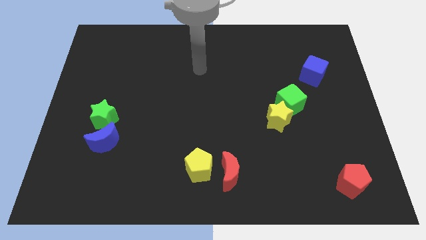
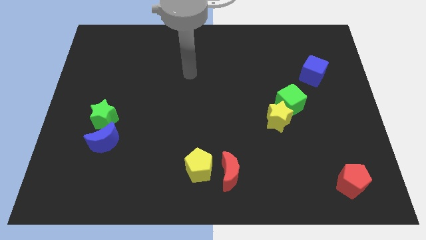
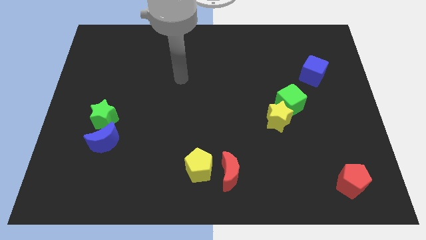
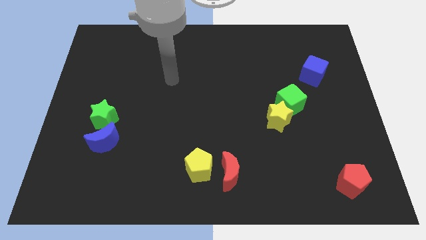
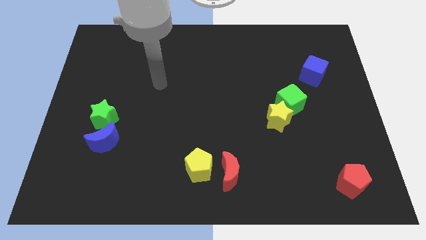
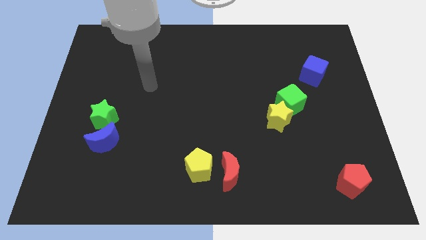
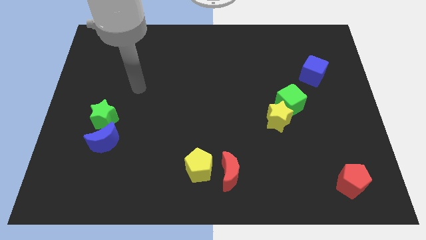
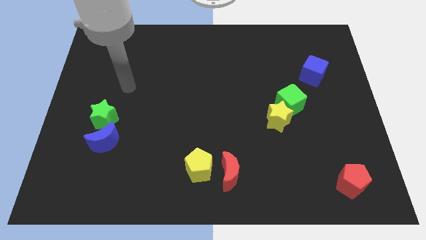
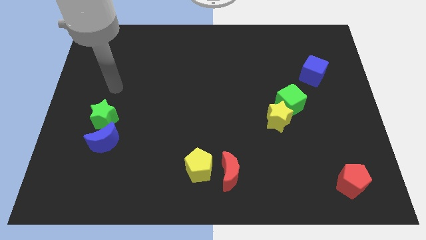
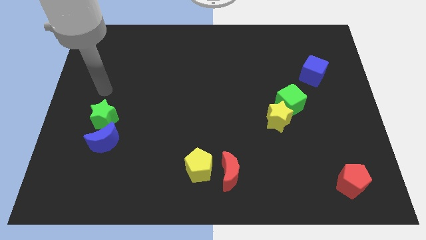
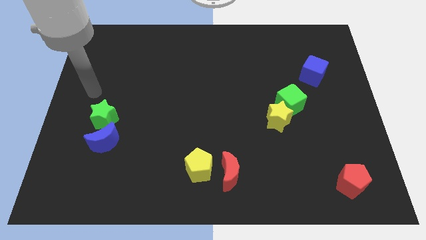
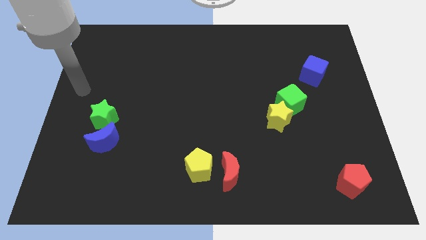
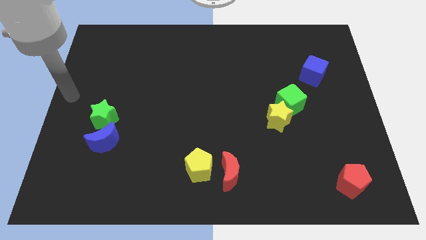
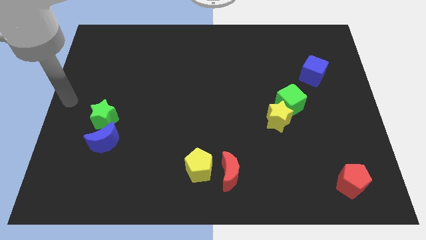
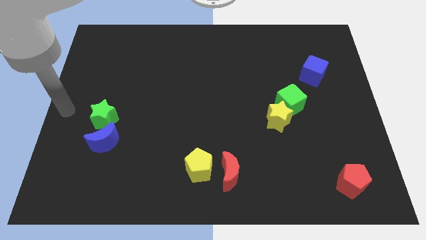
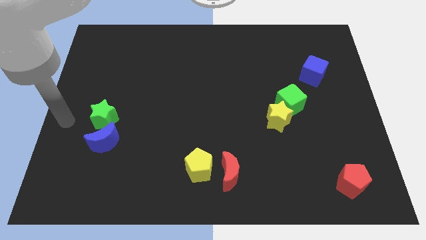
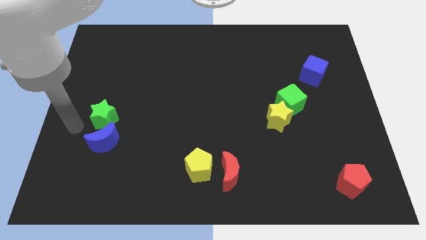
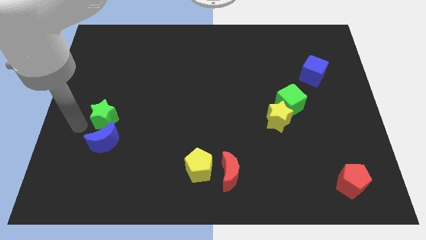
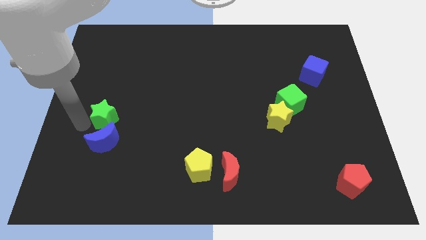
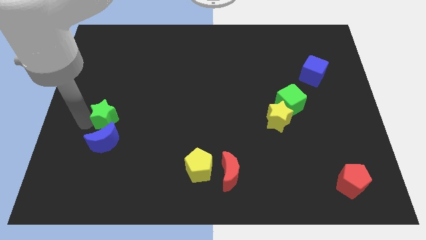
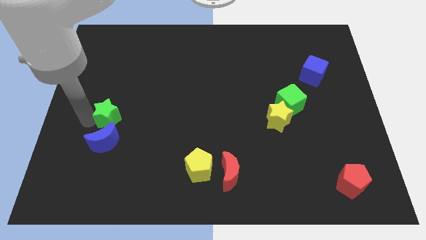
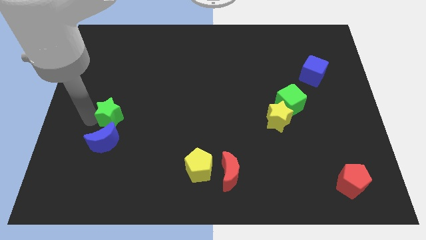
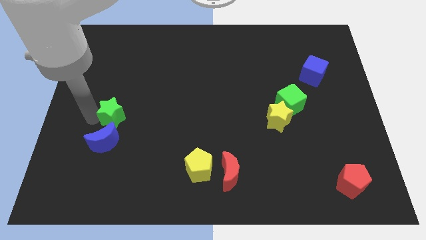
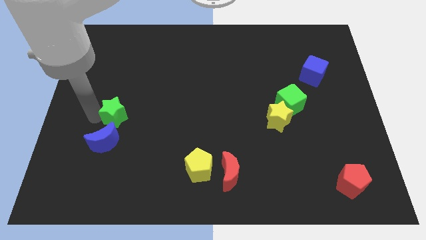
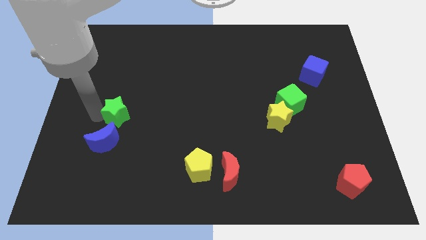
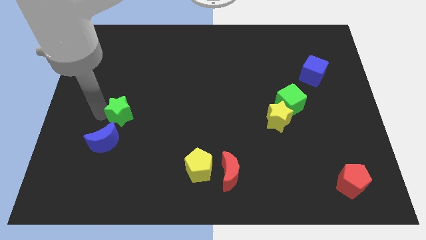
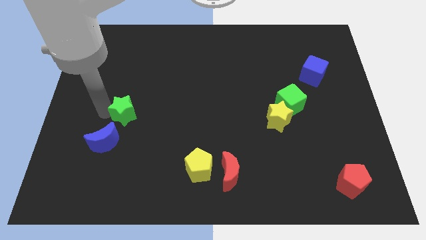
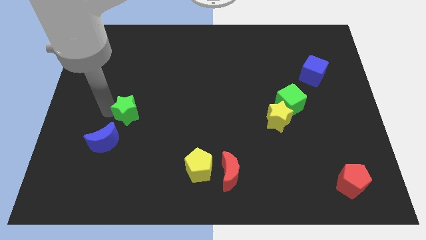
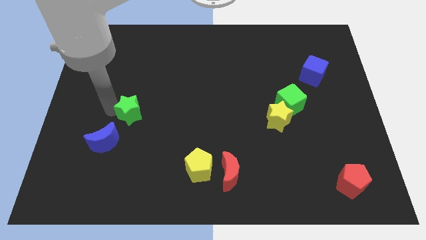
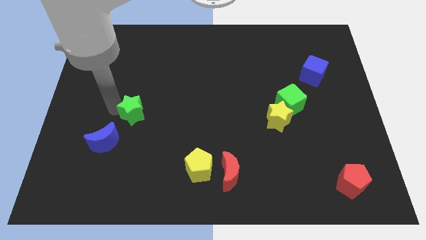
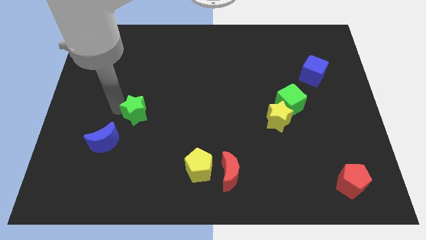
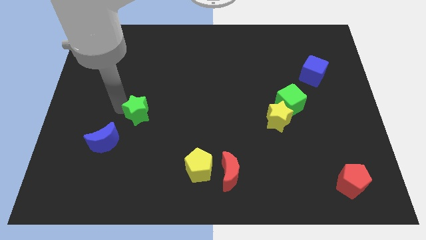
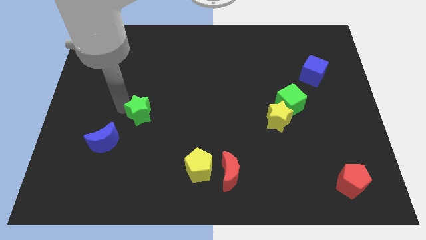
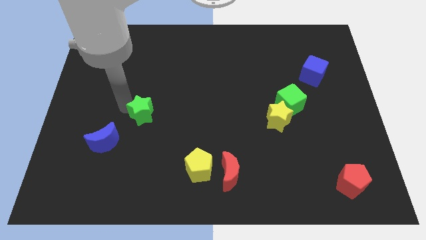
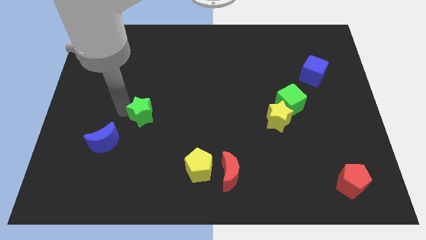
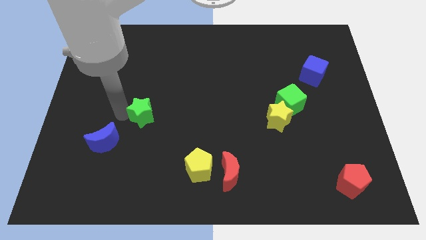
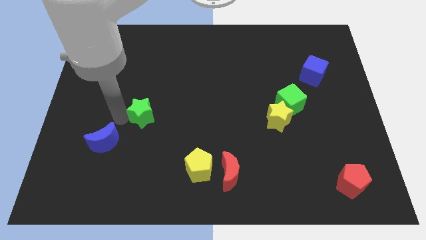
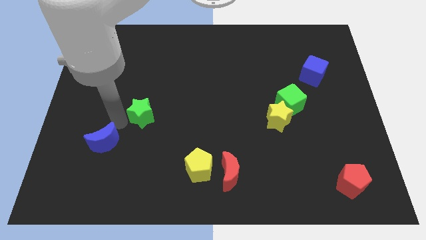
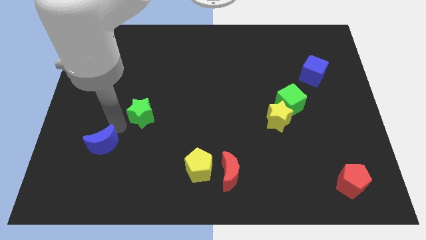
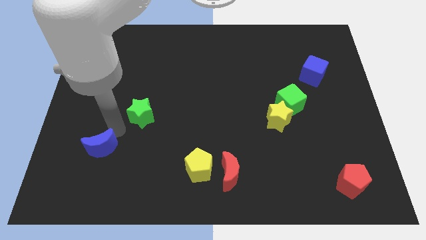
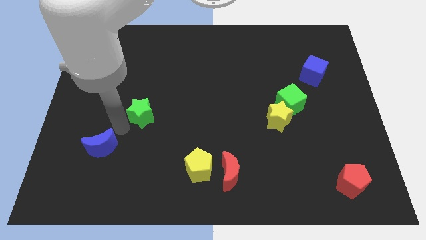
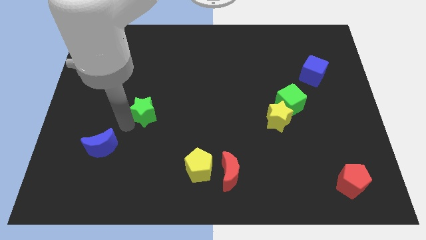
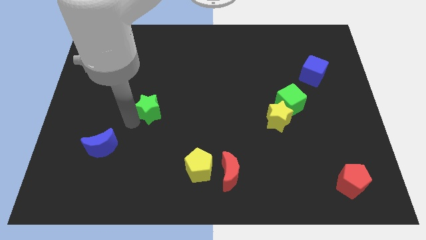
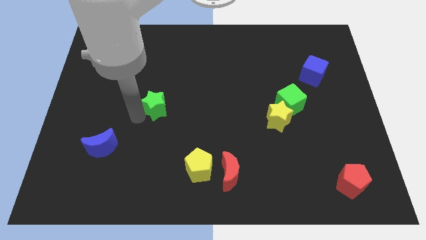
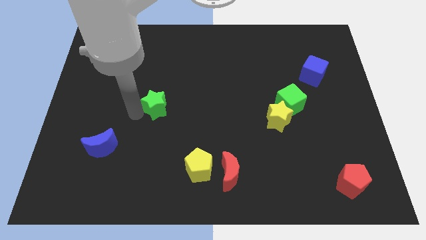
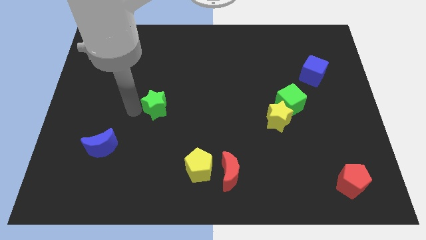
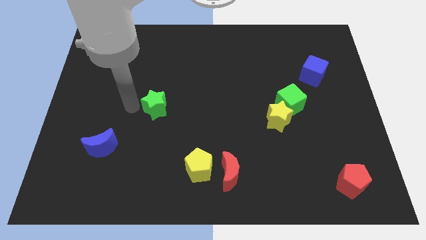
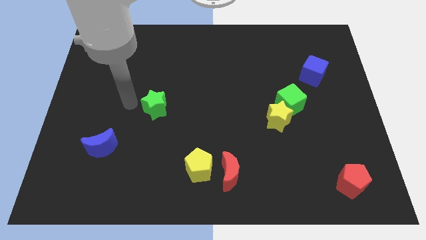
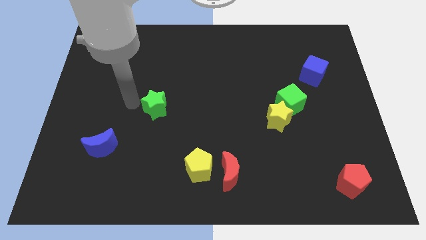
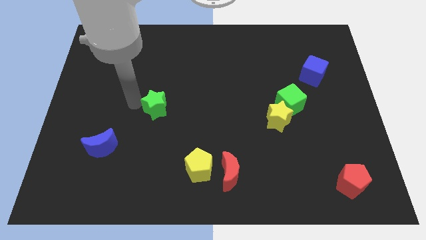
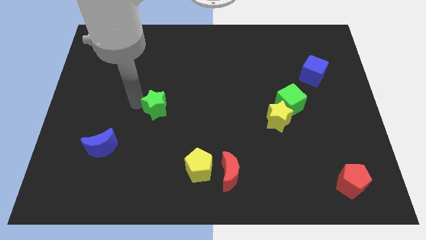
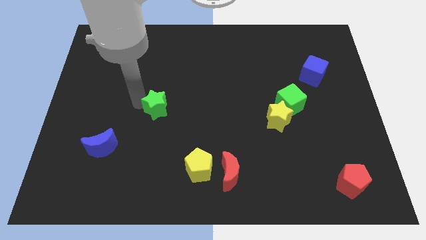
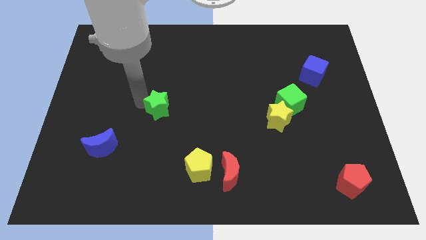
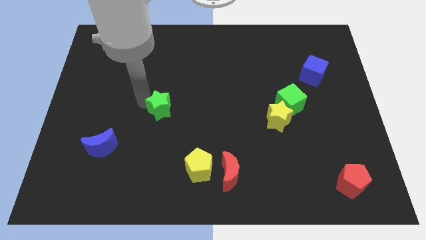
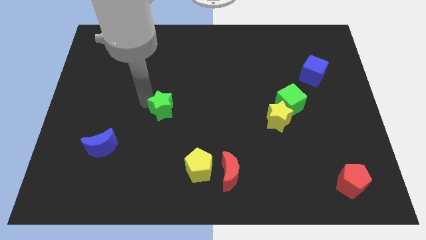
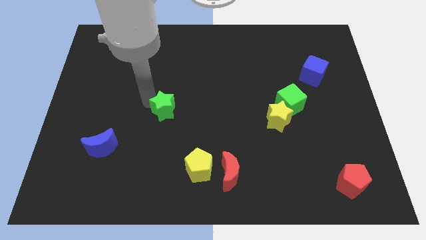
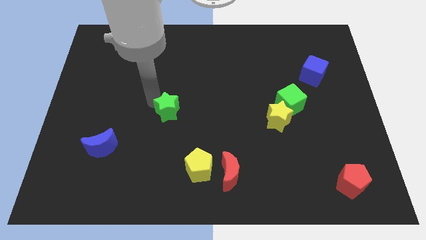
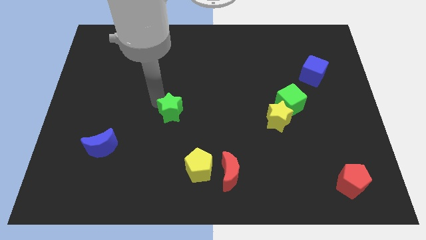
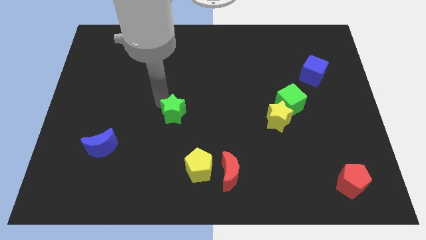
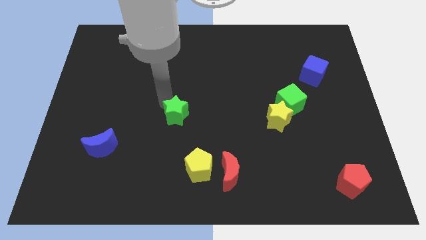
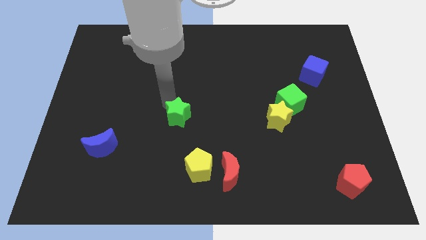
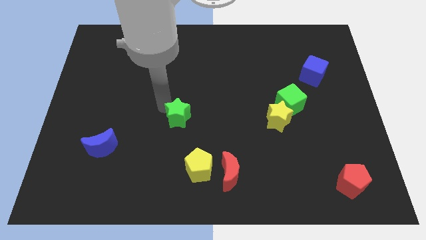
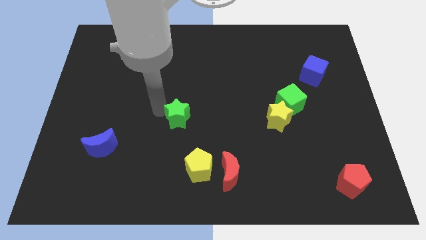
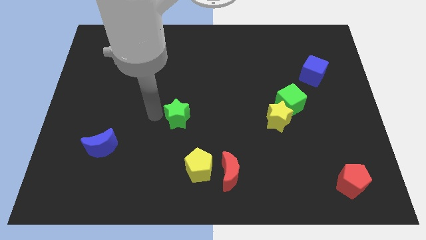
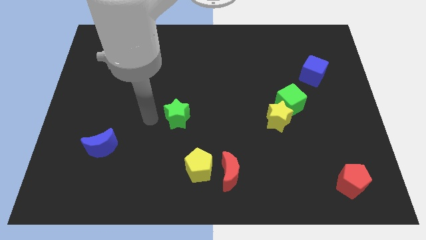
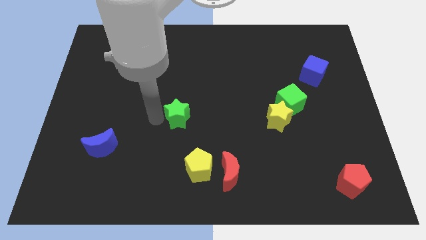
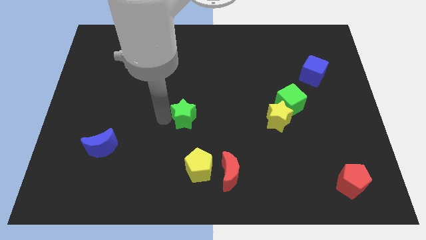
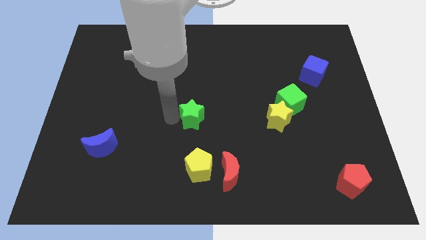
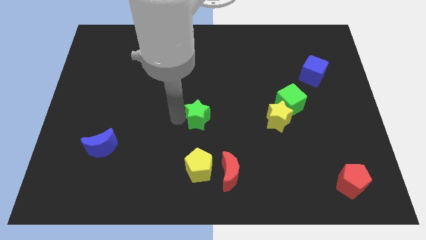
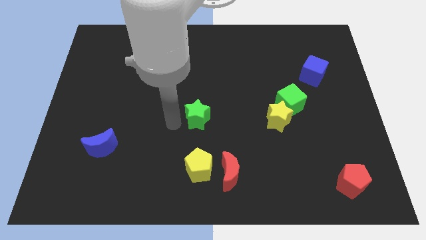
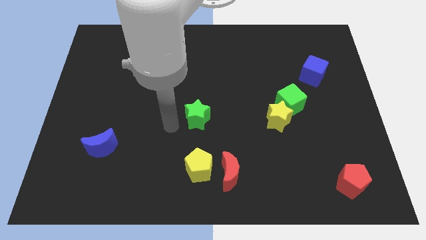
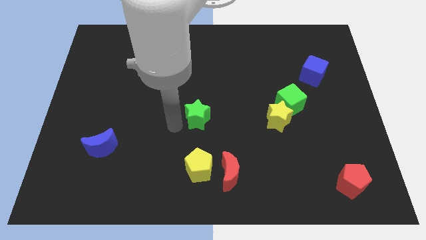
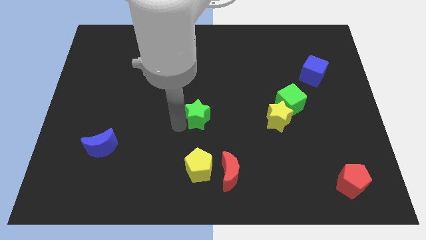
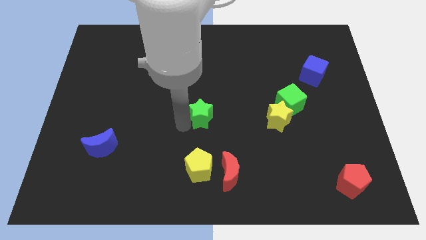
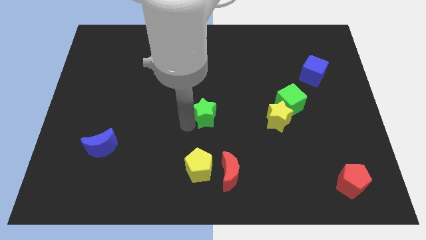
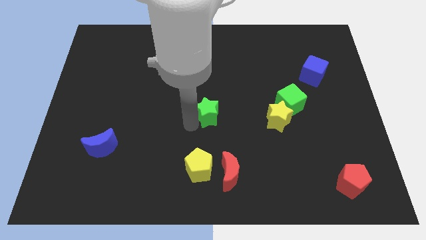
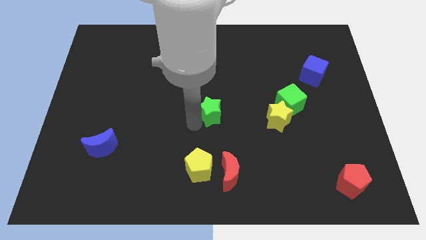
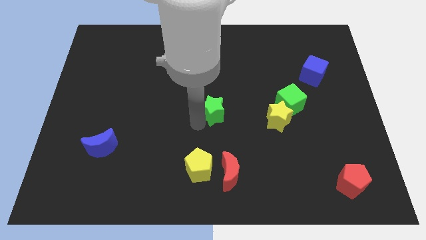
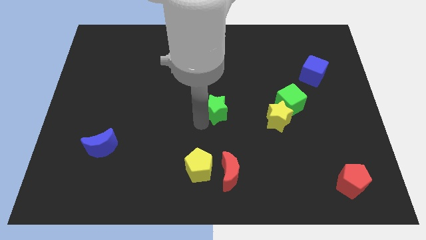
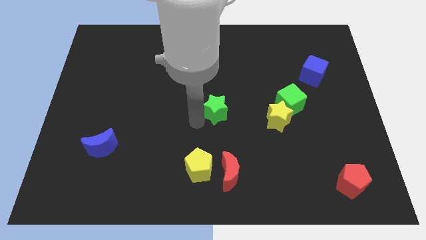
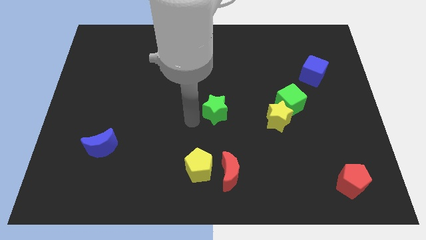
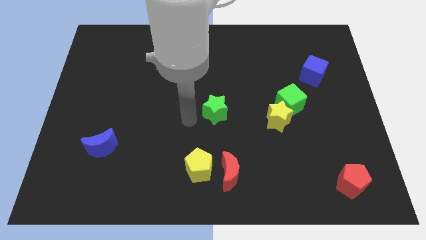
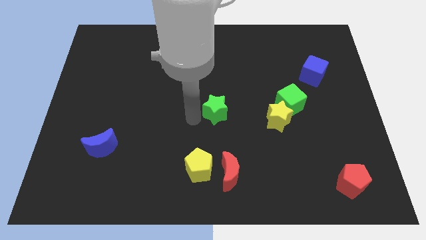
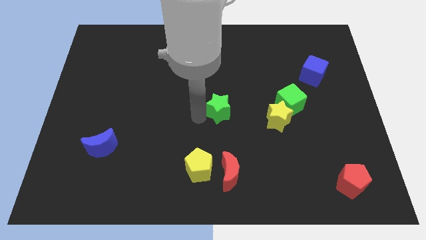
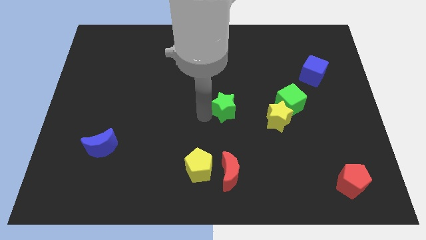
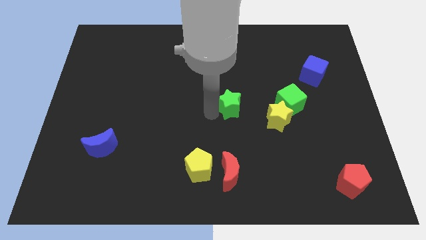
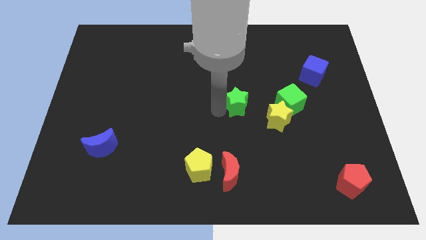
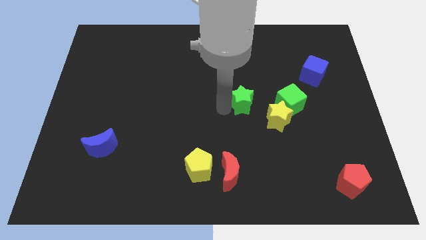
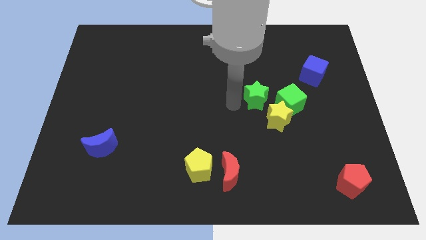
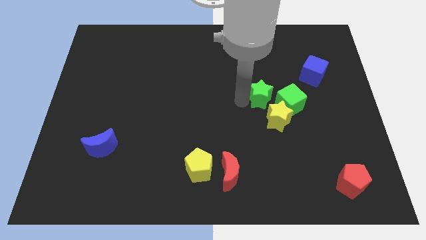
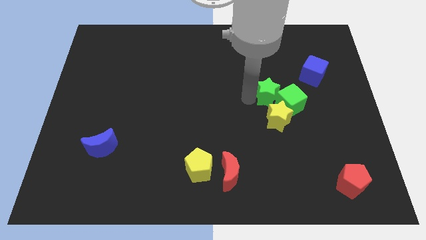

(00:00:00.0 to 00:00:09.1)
move the green star towards the green cube
